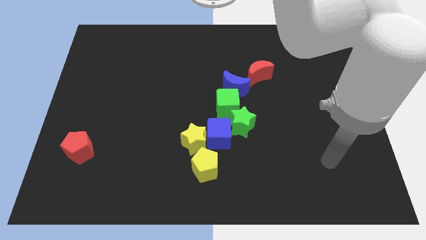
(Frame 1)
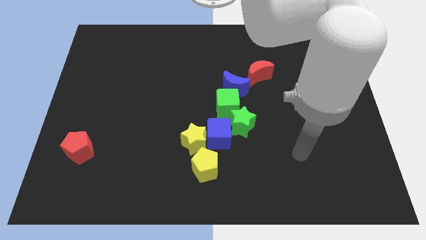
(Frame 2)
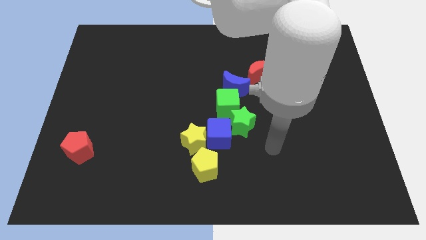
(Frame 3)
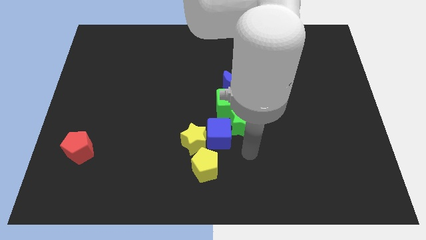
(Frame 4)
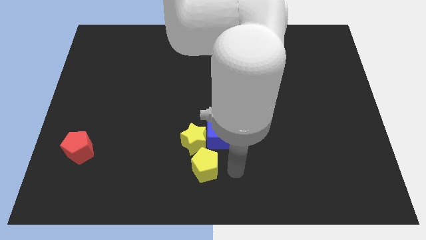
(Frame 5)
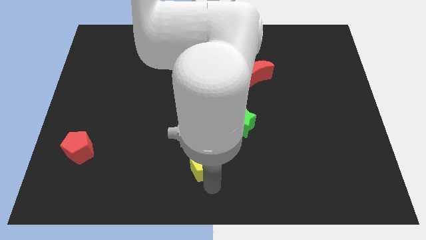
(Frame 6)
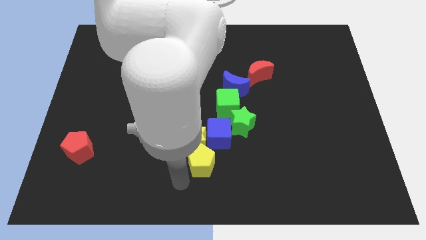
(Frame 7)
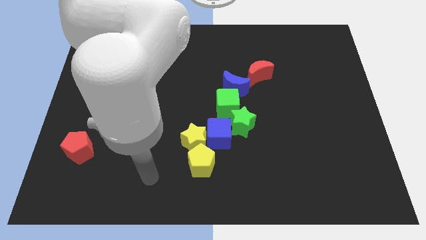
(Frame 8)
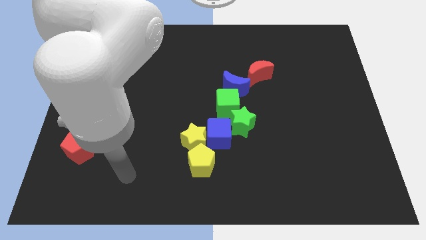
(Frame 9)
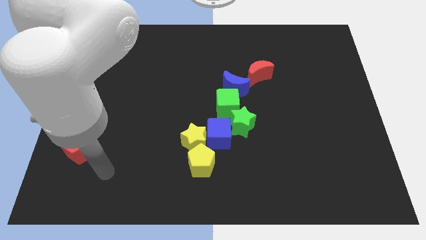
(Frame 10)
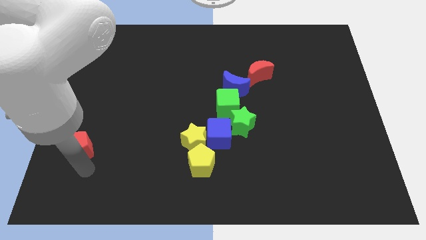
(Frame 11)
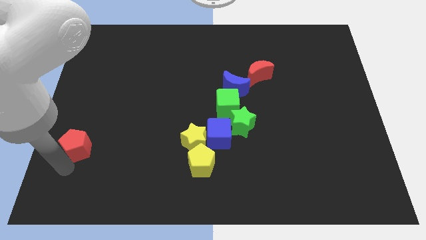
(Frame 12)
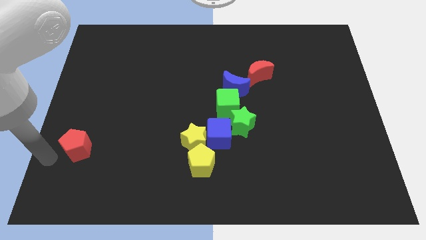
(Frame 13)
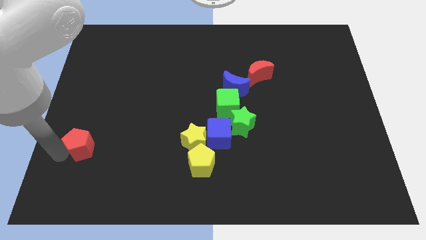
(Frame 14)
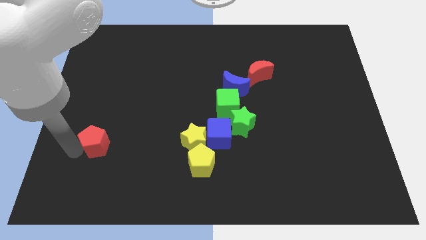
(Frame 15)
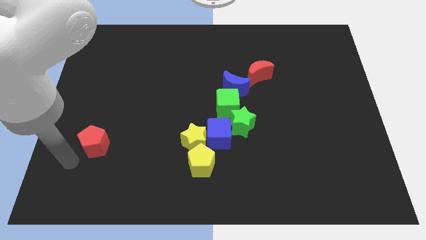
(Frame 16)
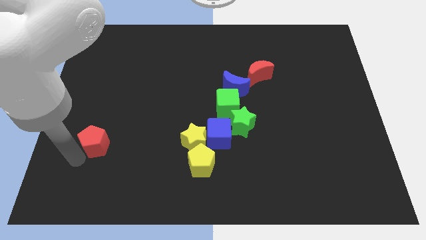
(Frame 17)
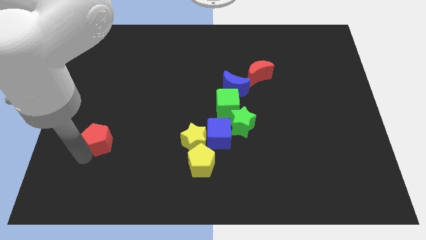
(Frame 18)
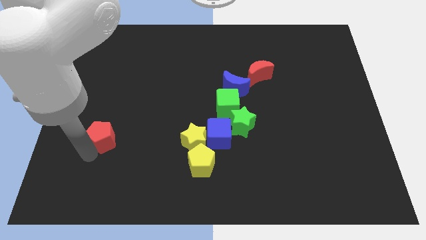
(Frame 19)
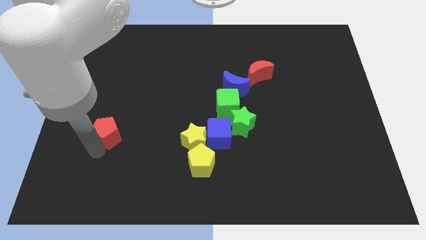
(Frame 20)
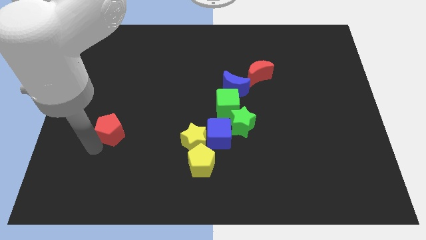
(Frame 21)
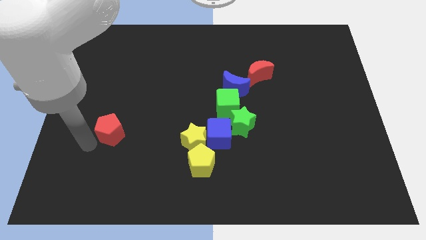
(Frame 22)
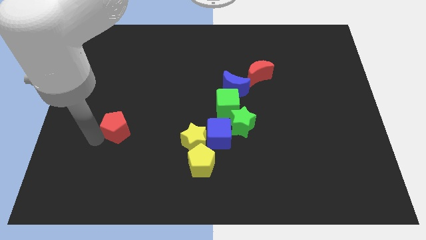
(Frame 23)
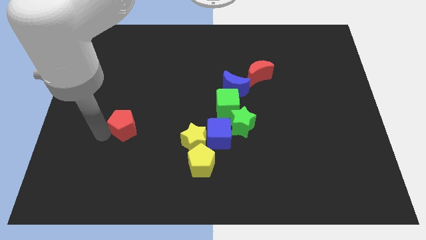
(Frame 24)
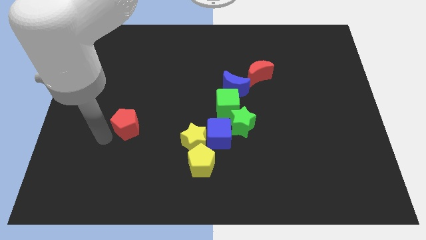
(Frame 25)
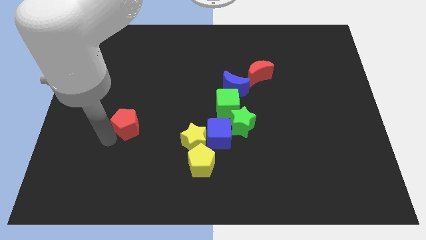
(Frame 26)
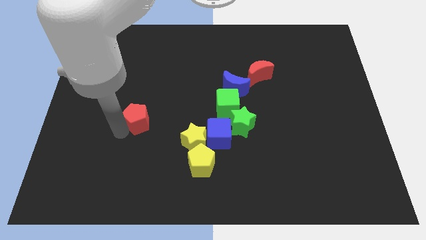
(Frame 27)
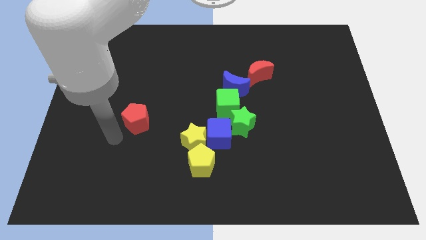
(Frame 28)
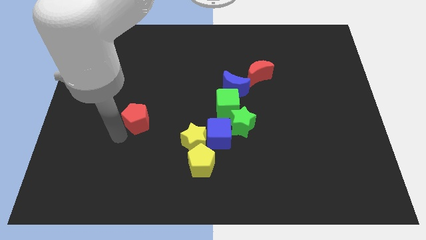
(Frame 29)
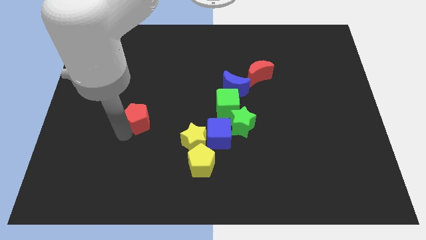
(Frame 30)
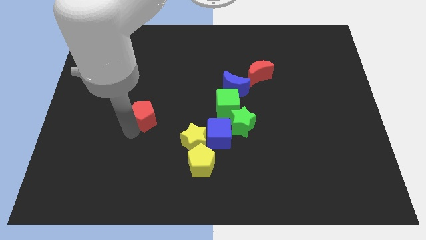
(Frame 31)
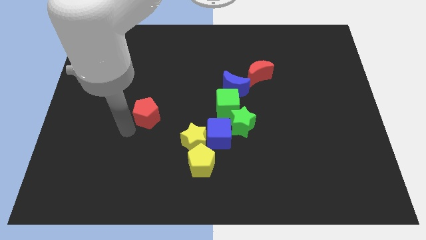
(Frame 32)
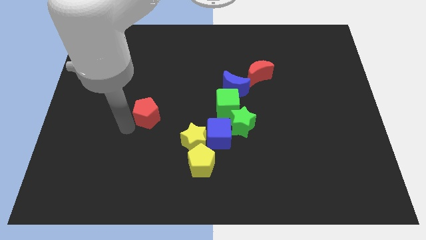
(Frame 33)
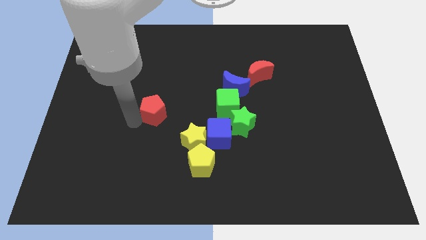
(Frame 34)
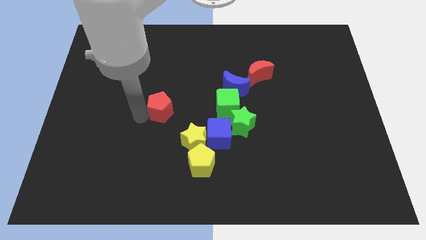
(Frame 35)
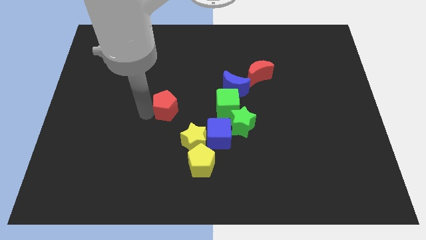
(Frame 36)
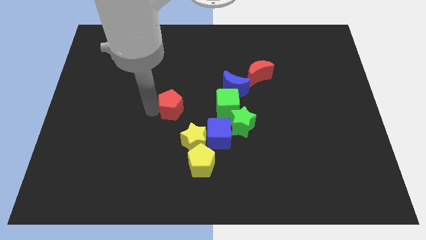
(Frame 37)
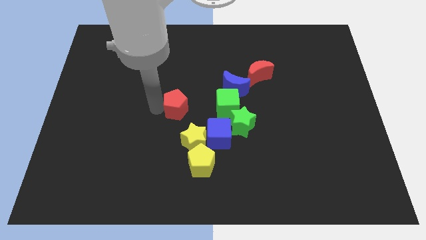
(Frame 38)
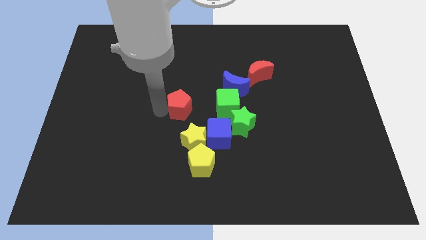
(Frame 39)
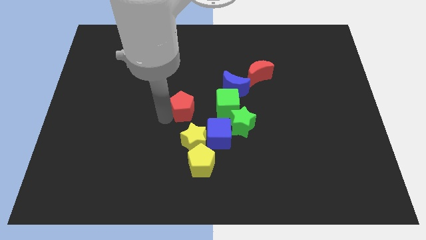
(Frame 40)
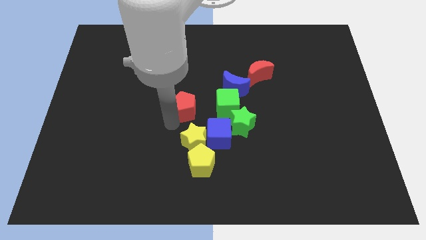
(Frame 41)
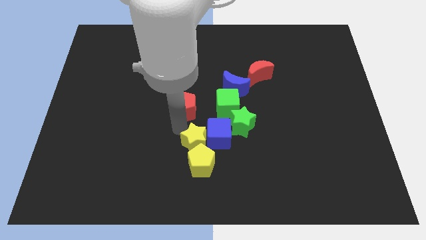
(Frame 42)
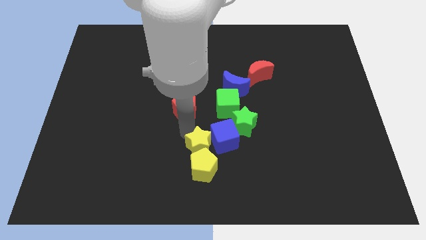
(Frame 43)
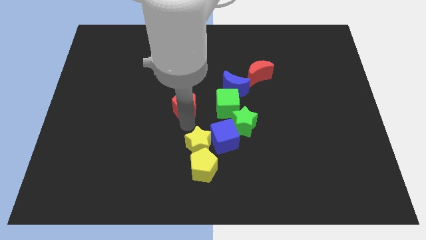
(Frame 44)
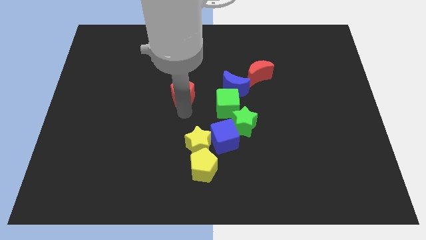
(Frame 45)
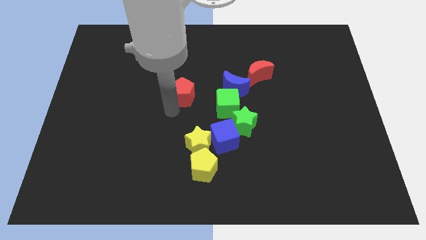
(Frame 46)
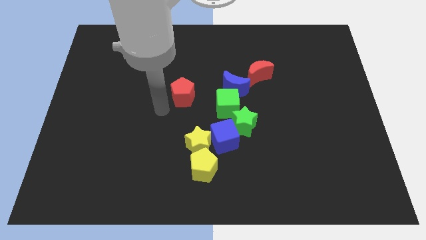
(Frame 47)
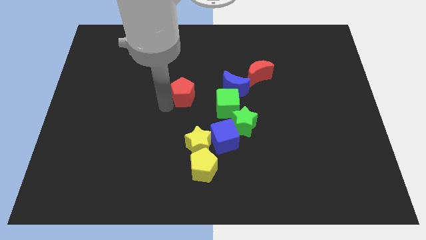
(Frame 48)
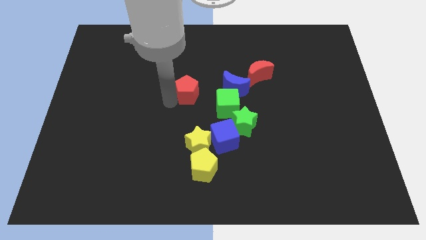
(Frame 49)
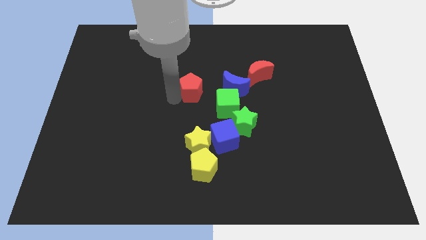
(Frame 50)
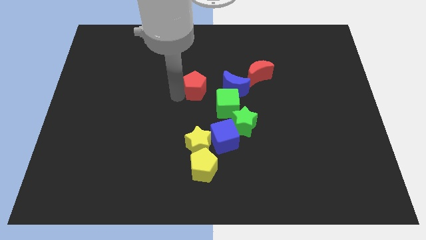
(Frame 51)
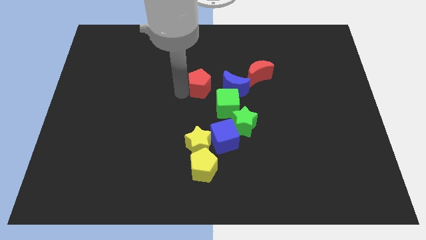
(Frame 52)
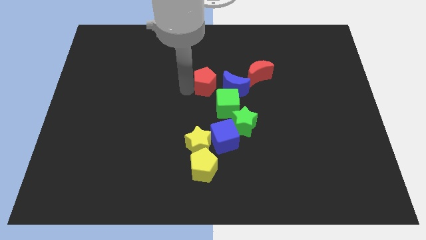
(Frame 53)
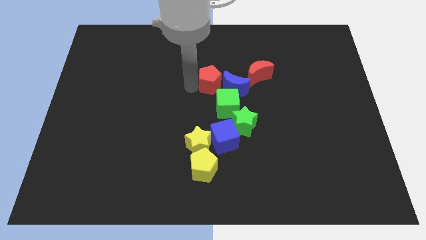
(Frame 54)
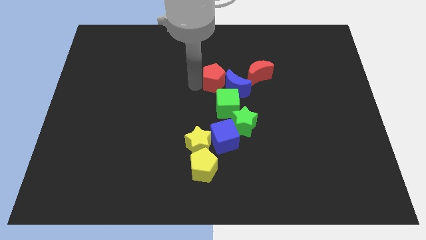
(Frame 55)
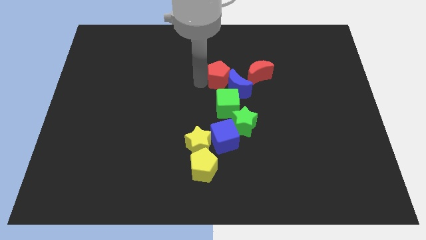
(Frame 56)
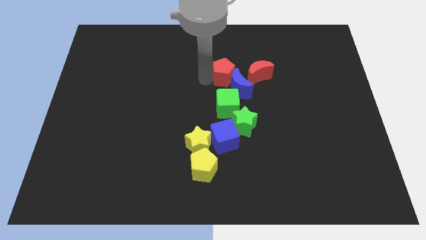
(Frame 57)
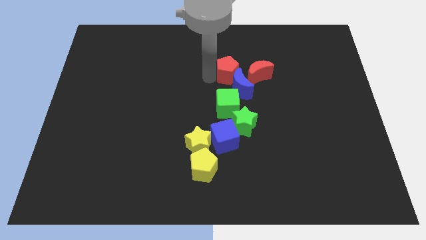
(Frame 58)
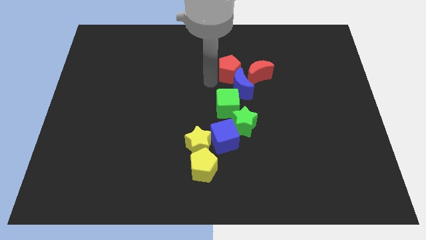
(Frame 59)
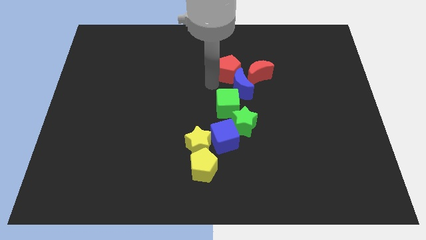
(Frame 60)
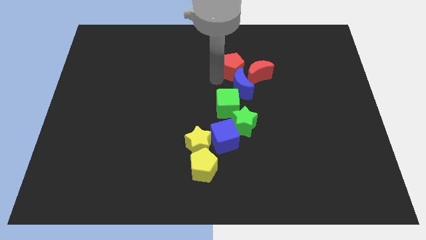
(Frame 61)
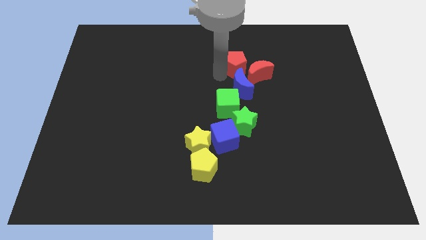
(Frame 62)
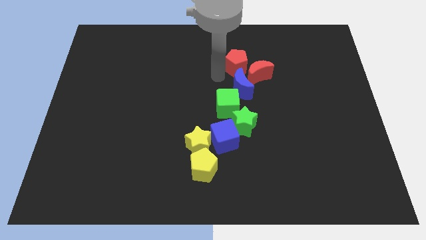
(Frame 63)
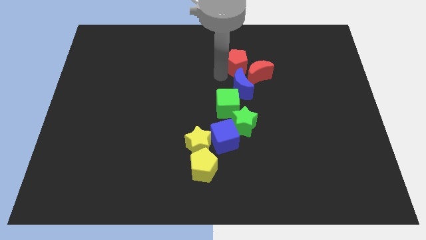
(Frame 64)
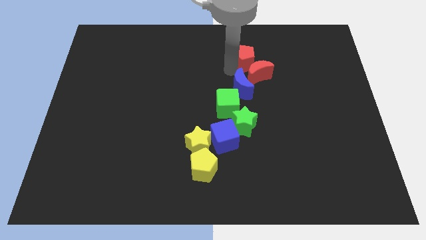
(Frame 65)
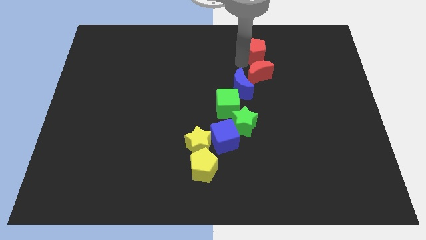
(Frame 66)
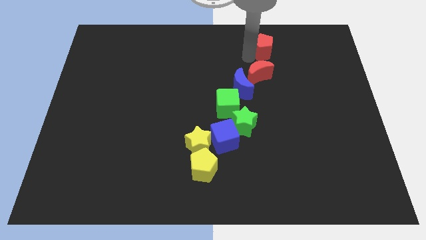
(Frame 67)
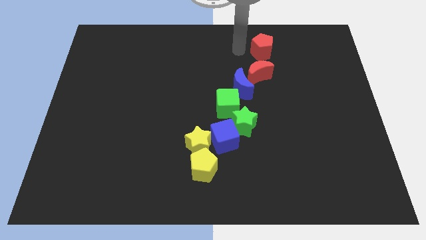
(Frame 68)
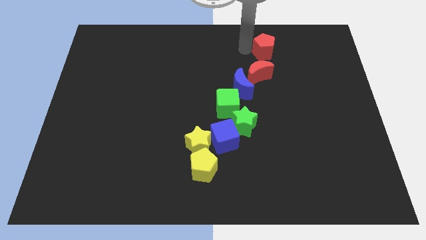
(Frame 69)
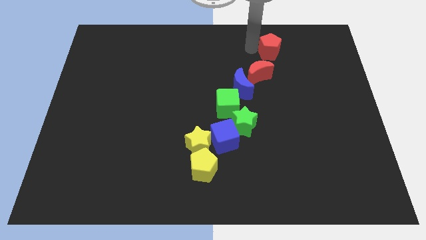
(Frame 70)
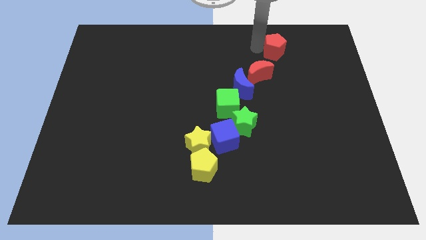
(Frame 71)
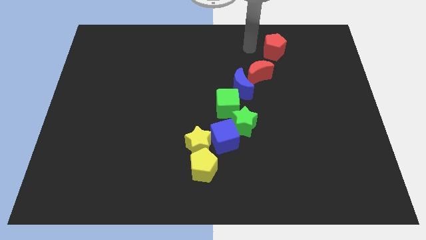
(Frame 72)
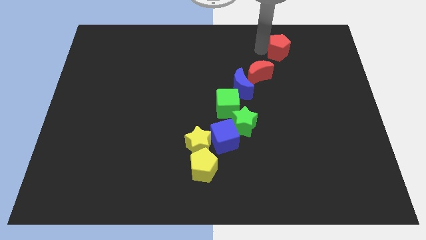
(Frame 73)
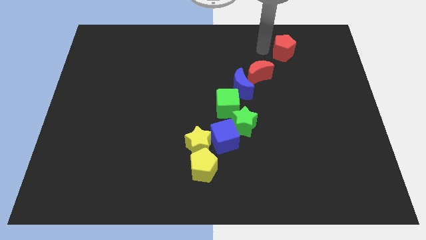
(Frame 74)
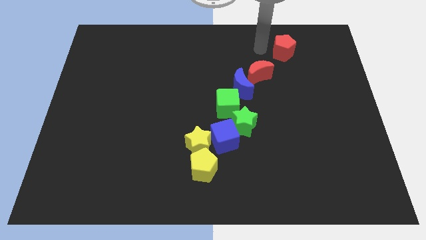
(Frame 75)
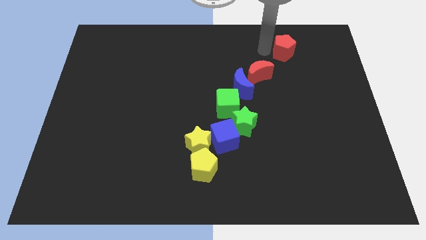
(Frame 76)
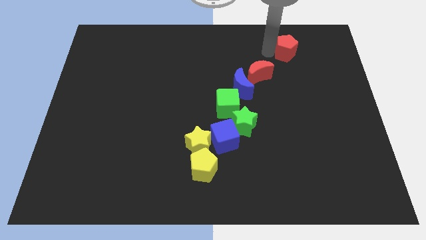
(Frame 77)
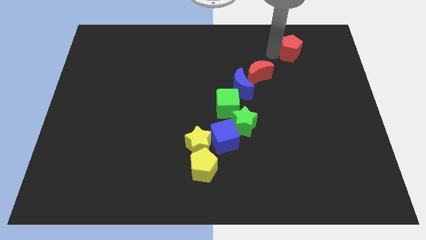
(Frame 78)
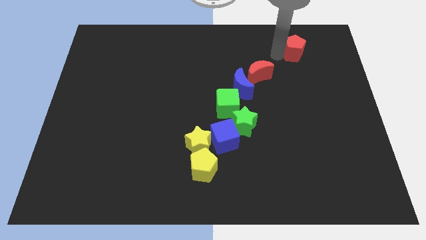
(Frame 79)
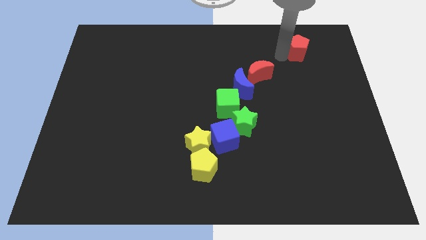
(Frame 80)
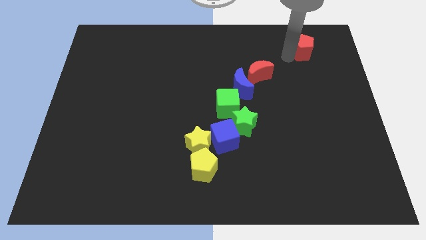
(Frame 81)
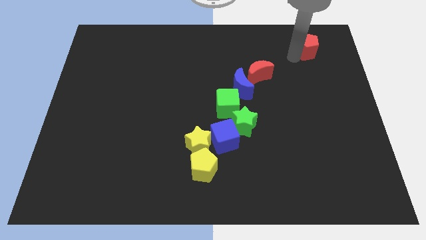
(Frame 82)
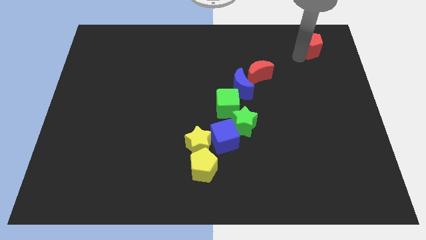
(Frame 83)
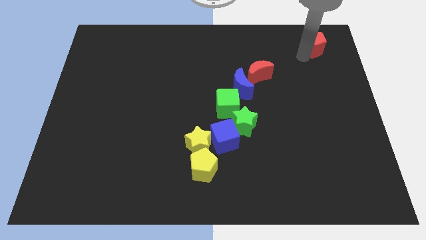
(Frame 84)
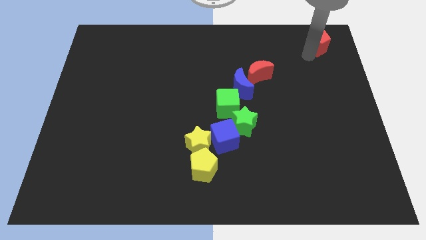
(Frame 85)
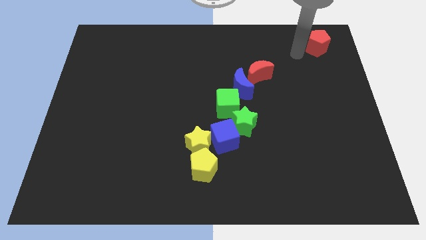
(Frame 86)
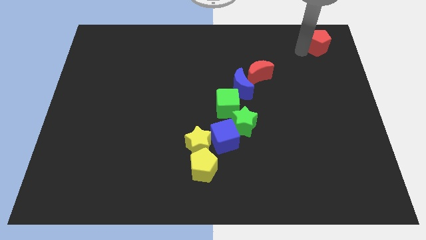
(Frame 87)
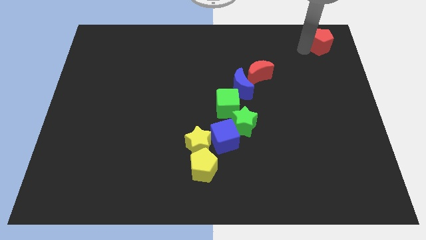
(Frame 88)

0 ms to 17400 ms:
slide the red pentagon to the upper right corner
